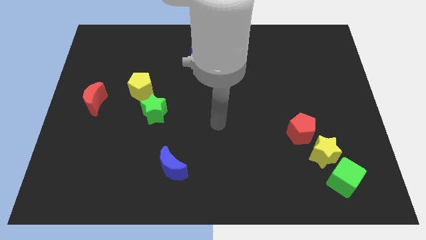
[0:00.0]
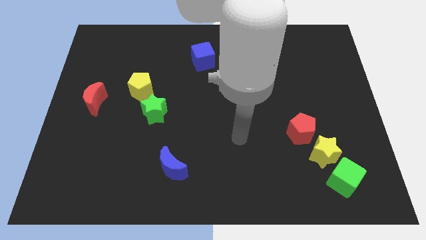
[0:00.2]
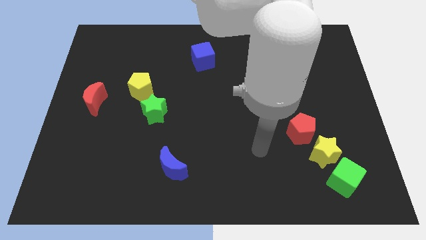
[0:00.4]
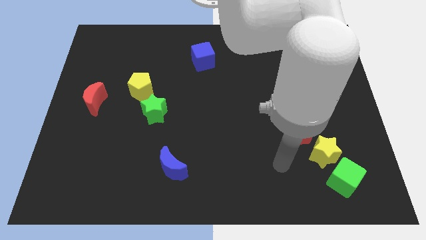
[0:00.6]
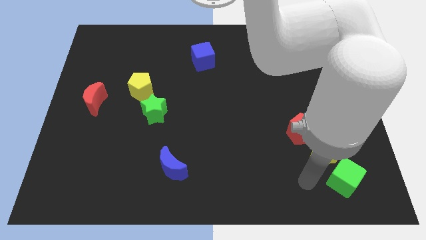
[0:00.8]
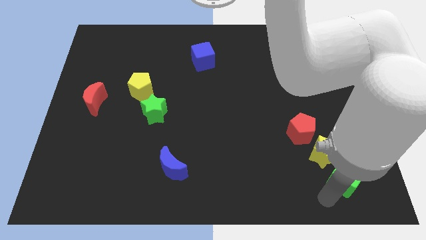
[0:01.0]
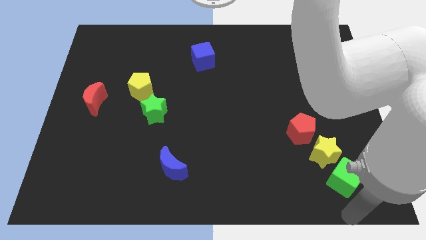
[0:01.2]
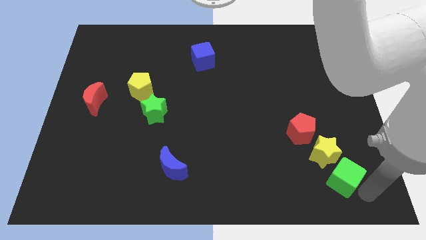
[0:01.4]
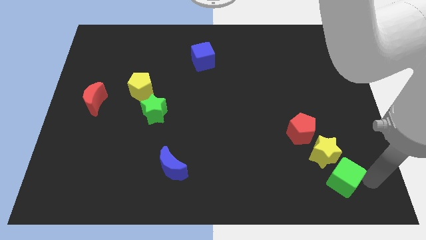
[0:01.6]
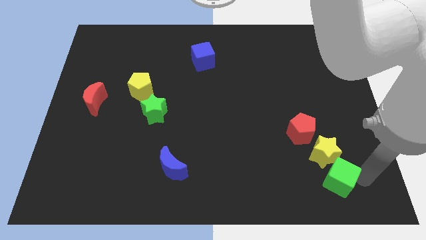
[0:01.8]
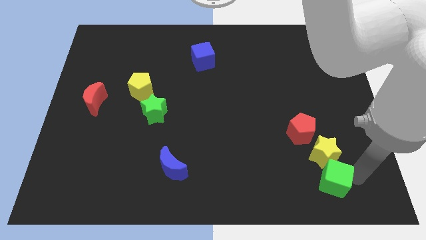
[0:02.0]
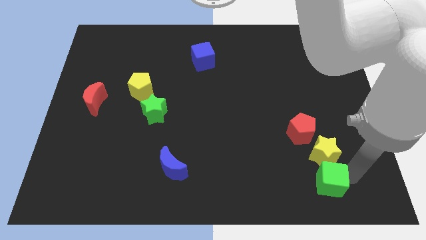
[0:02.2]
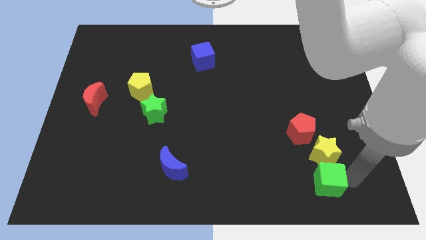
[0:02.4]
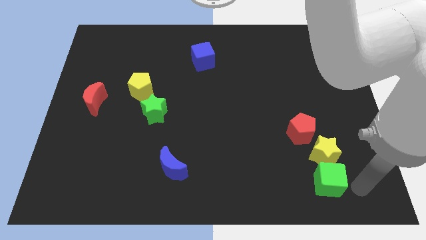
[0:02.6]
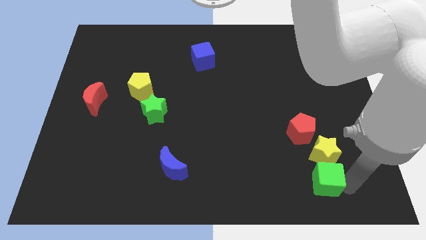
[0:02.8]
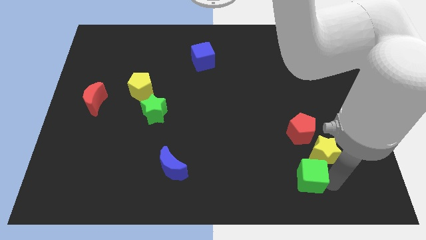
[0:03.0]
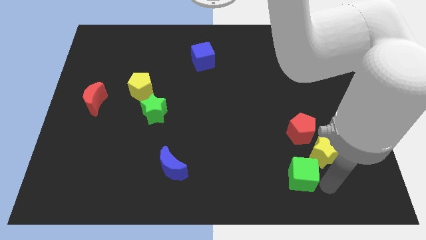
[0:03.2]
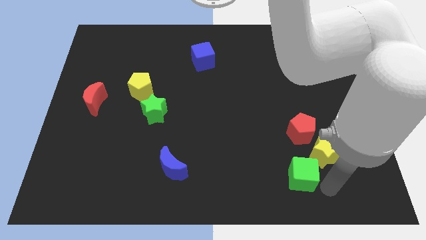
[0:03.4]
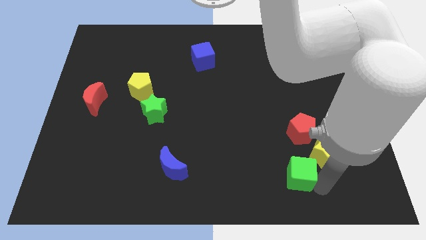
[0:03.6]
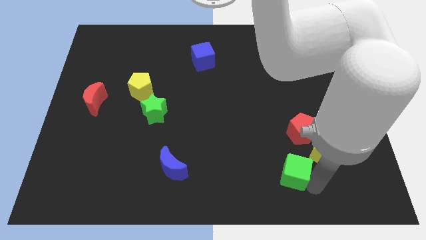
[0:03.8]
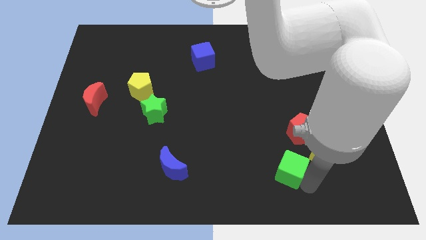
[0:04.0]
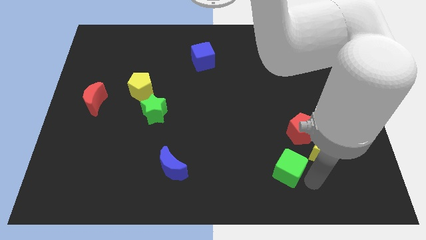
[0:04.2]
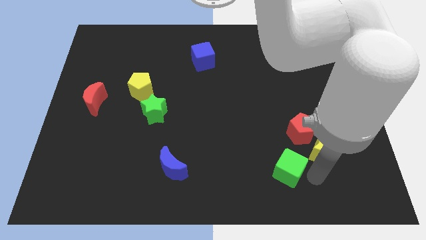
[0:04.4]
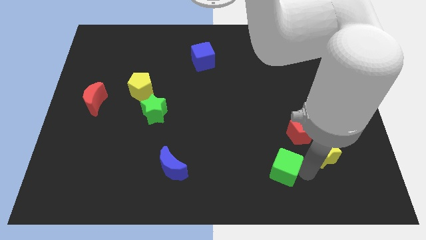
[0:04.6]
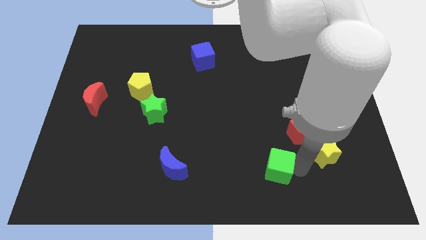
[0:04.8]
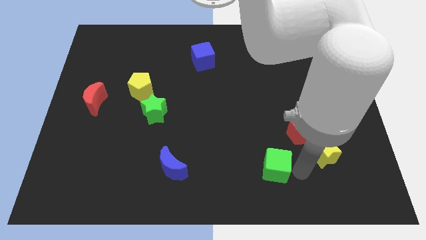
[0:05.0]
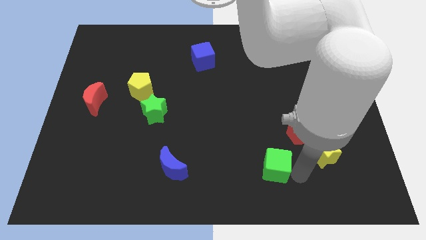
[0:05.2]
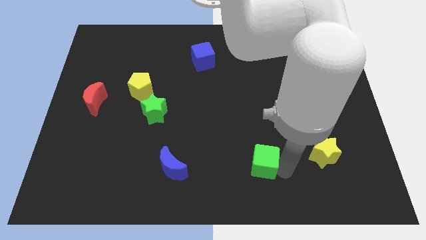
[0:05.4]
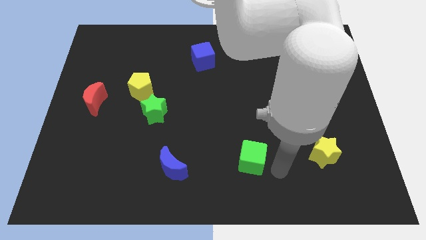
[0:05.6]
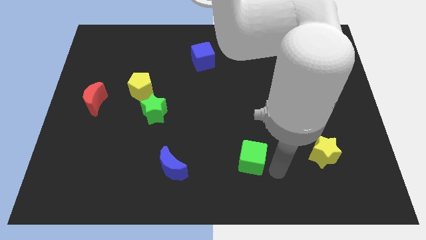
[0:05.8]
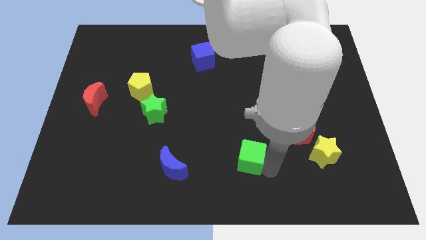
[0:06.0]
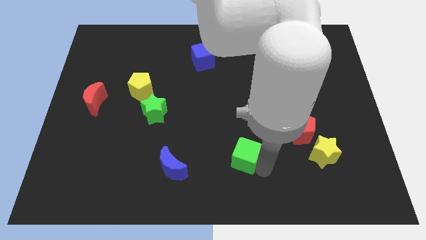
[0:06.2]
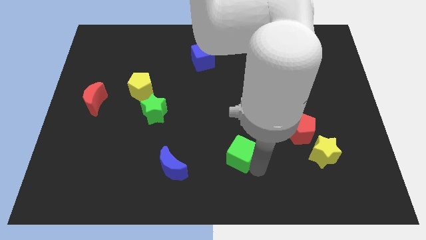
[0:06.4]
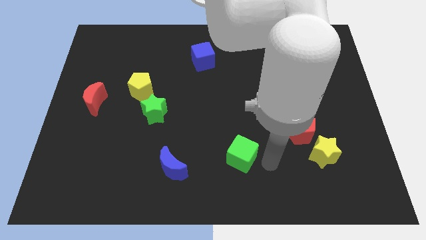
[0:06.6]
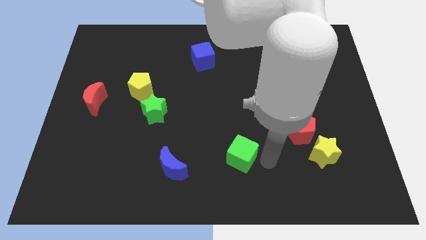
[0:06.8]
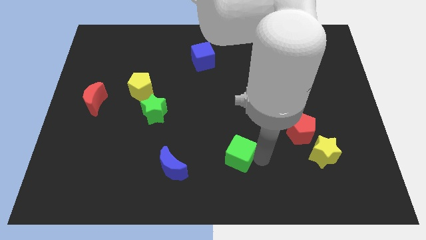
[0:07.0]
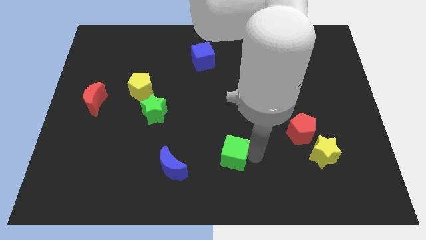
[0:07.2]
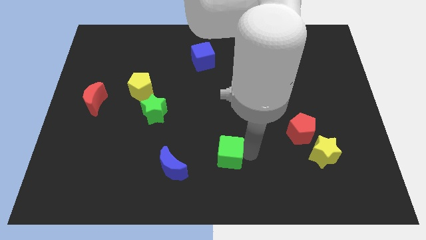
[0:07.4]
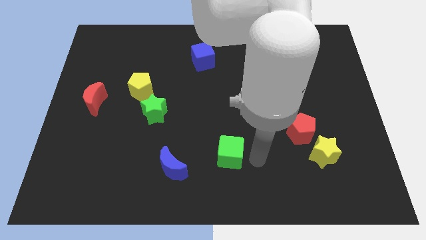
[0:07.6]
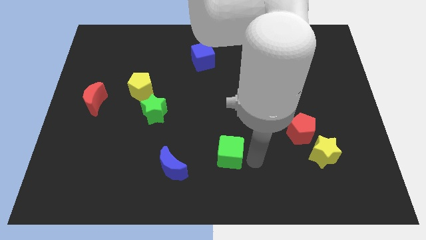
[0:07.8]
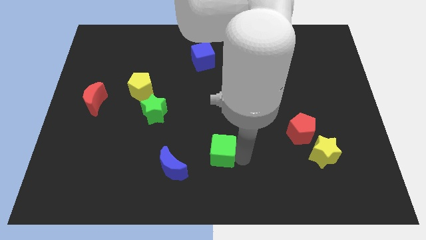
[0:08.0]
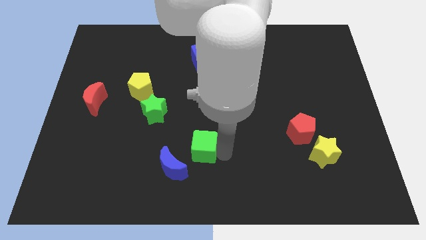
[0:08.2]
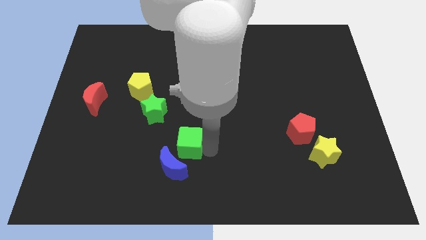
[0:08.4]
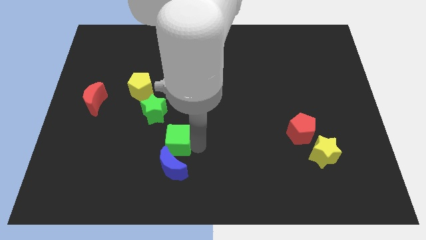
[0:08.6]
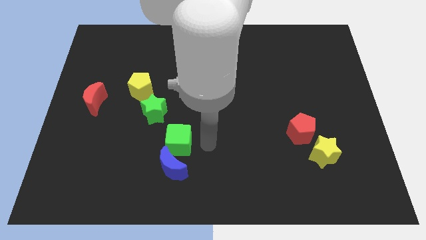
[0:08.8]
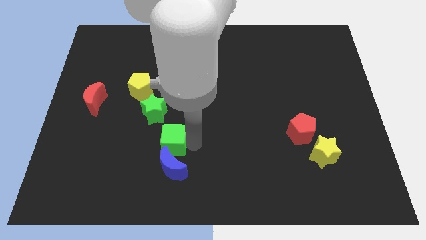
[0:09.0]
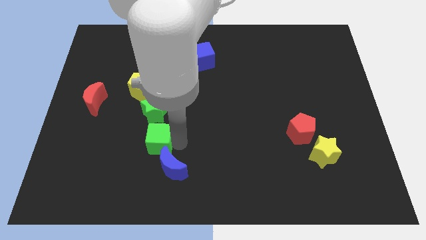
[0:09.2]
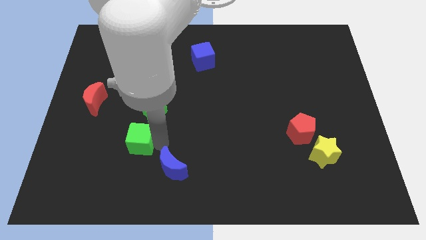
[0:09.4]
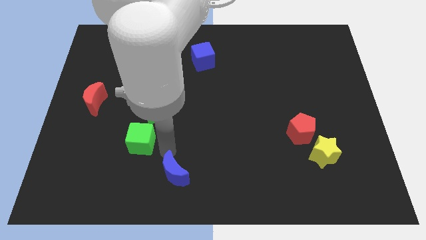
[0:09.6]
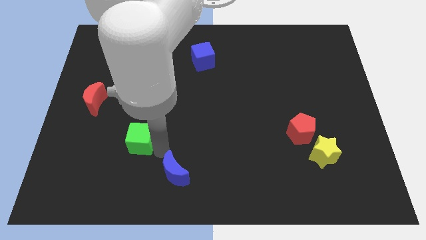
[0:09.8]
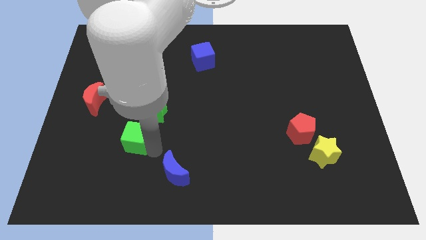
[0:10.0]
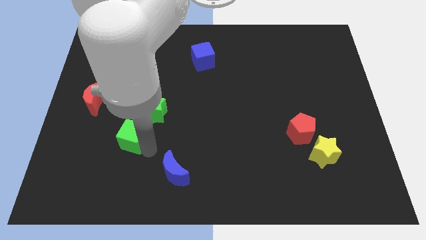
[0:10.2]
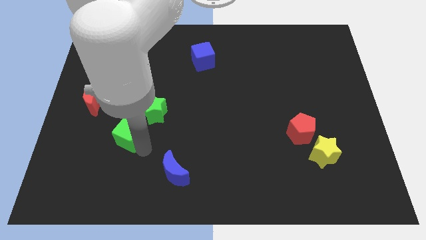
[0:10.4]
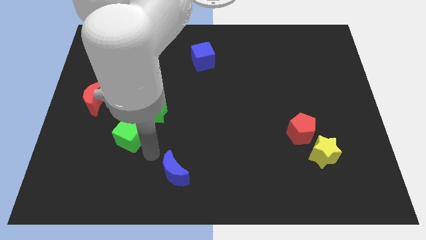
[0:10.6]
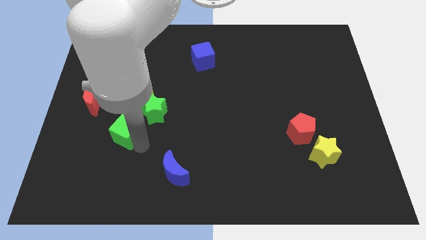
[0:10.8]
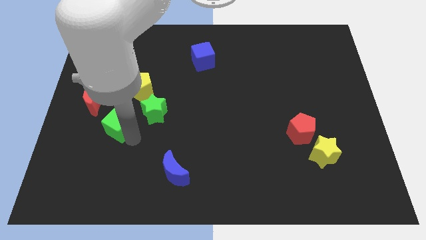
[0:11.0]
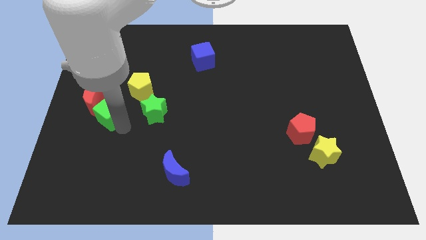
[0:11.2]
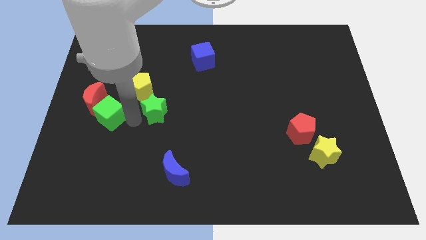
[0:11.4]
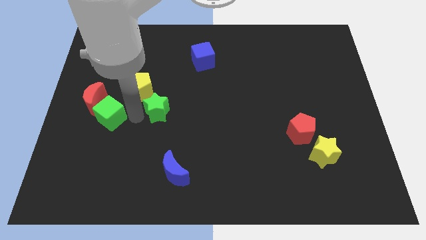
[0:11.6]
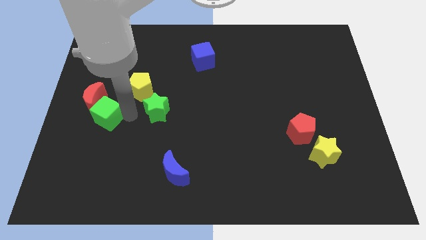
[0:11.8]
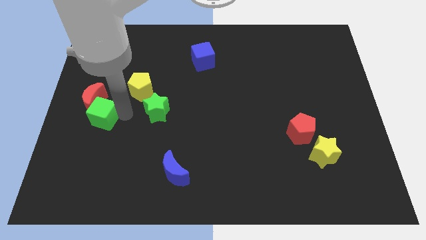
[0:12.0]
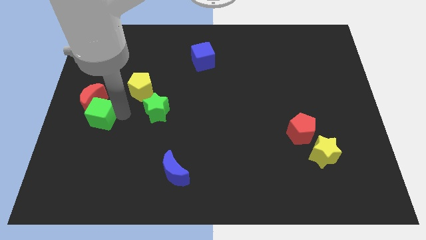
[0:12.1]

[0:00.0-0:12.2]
slide the green cube to the center left
